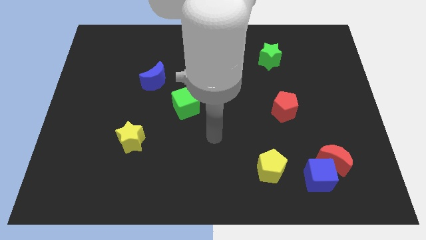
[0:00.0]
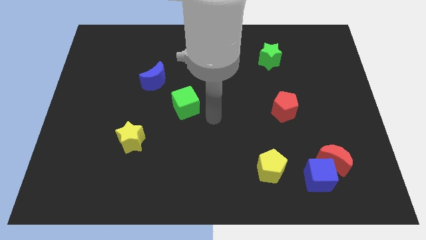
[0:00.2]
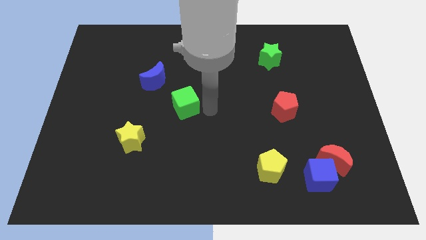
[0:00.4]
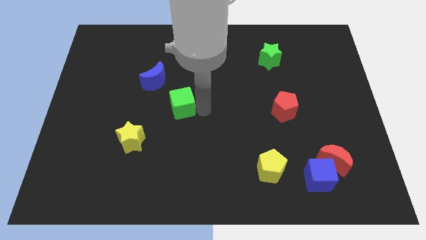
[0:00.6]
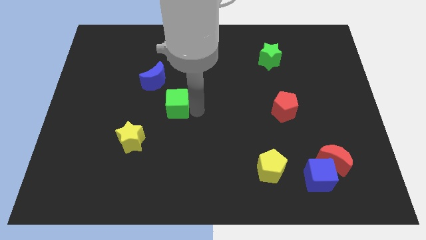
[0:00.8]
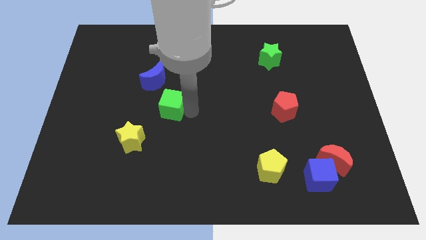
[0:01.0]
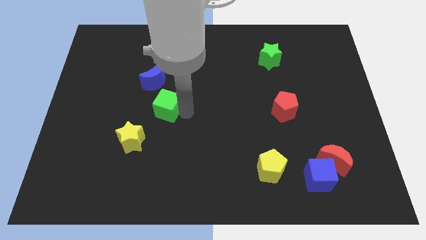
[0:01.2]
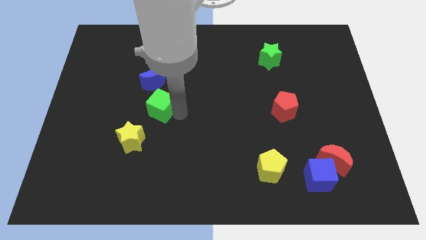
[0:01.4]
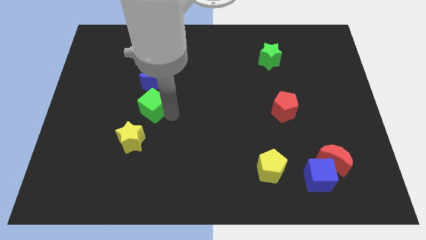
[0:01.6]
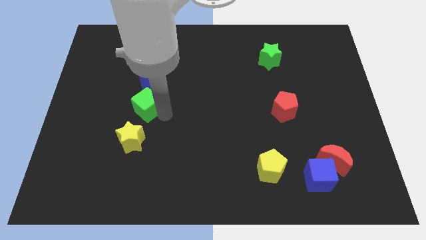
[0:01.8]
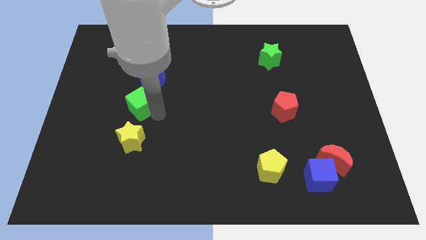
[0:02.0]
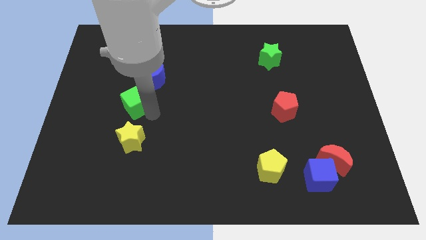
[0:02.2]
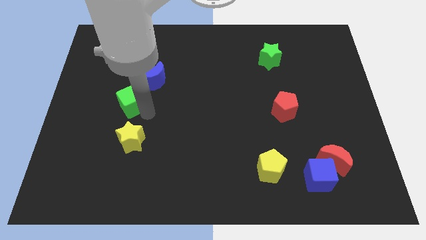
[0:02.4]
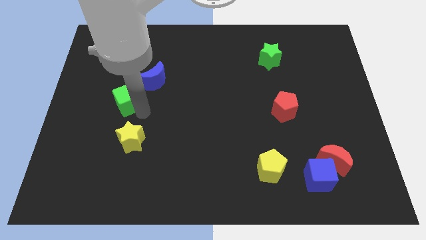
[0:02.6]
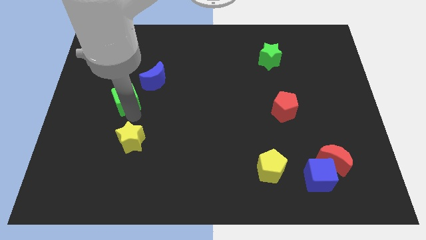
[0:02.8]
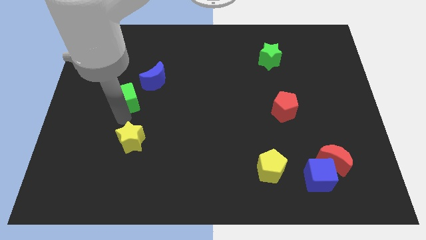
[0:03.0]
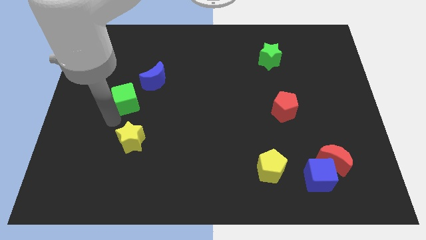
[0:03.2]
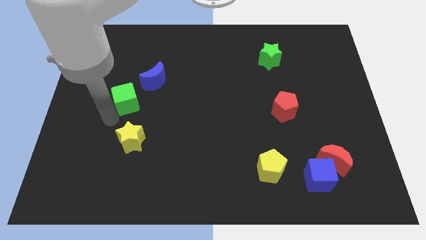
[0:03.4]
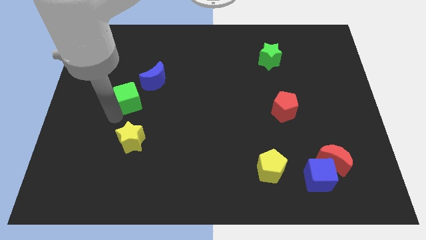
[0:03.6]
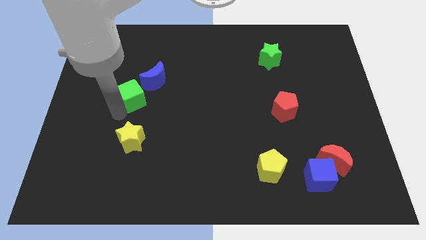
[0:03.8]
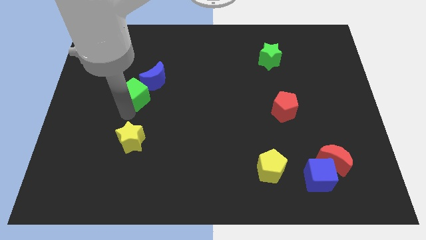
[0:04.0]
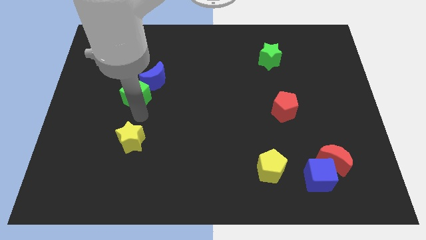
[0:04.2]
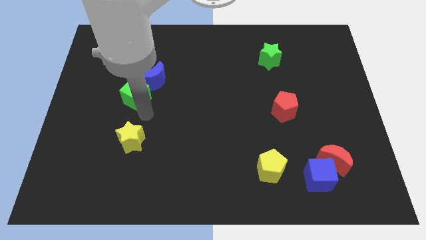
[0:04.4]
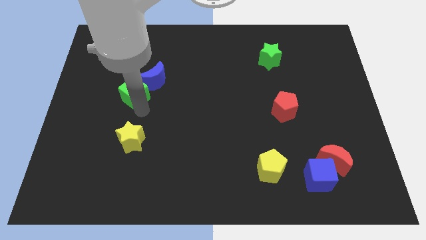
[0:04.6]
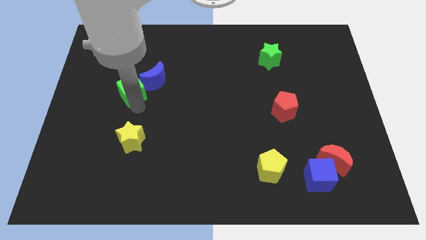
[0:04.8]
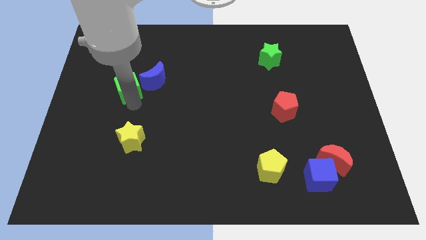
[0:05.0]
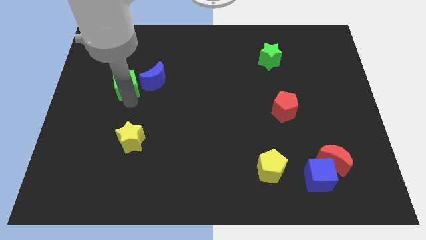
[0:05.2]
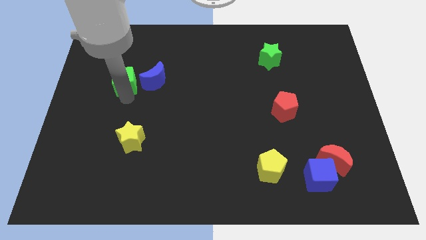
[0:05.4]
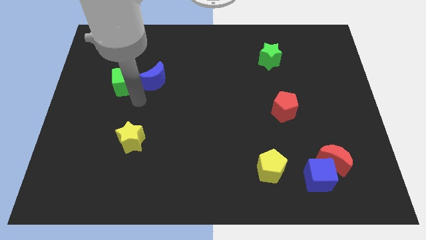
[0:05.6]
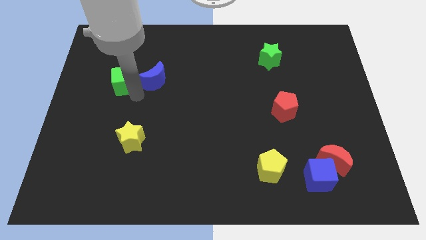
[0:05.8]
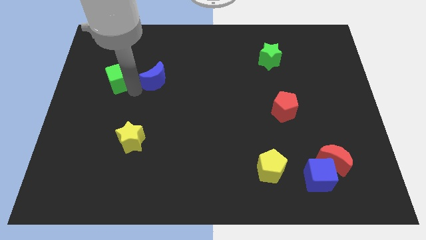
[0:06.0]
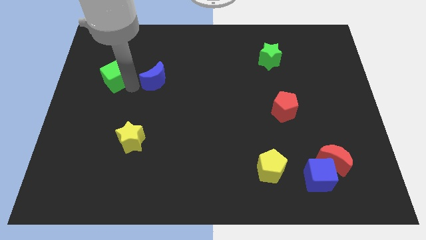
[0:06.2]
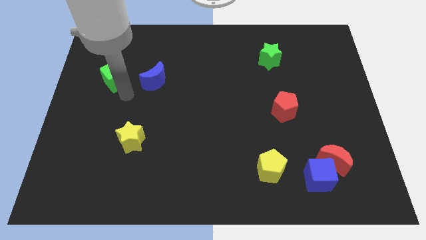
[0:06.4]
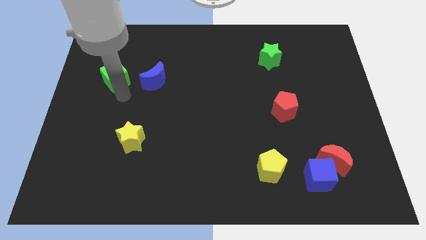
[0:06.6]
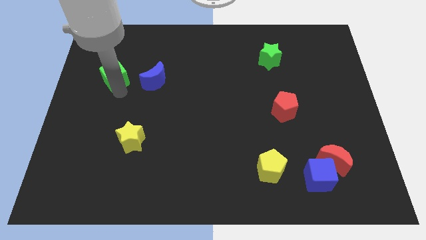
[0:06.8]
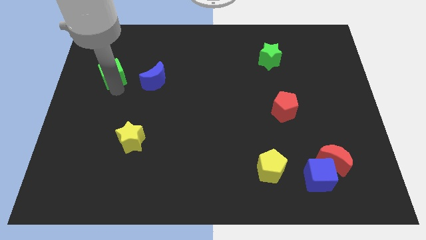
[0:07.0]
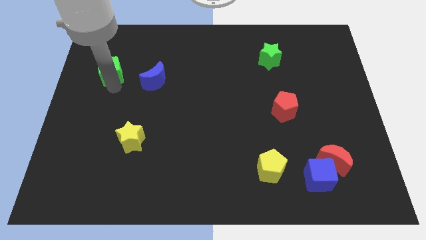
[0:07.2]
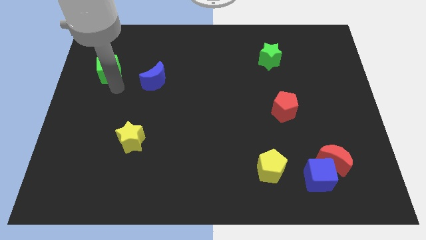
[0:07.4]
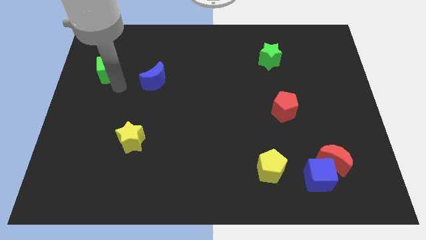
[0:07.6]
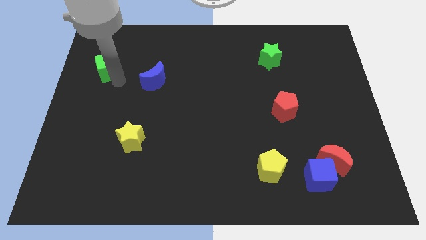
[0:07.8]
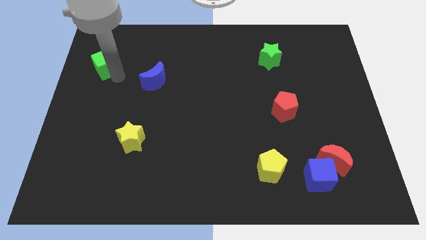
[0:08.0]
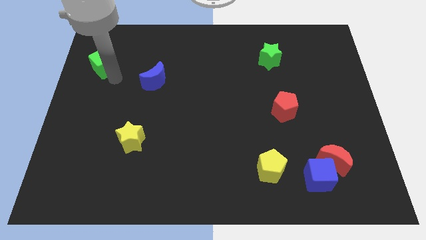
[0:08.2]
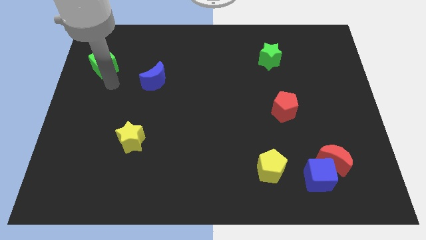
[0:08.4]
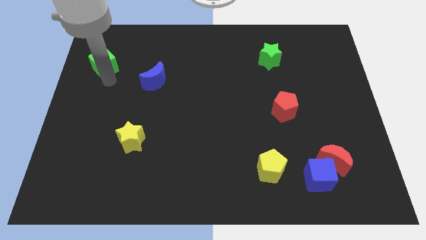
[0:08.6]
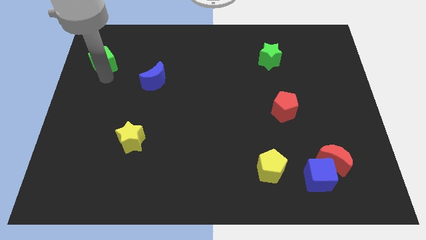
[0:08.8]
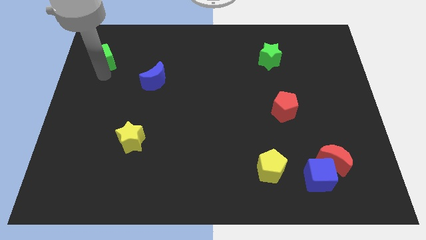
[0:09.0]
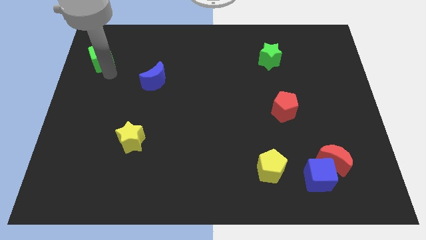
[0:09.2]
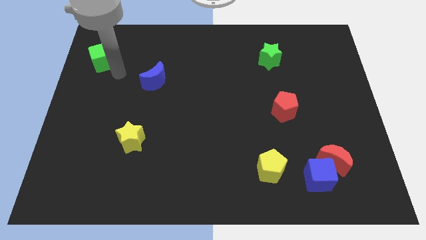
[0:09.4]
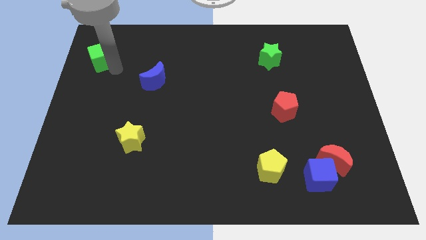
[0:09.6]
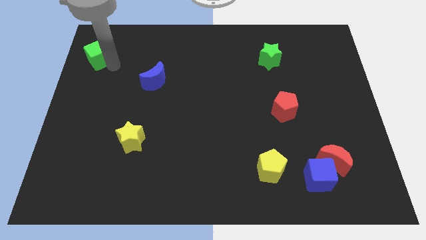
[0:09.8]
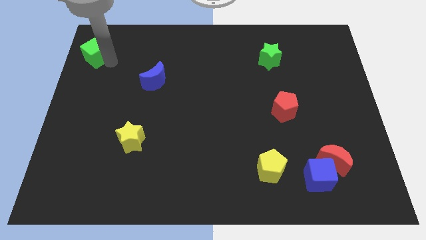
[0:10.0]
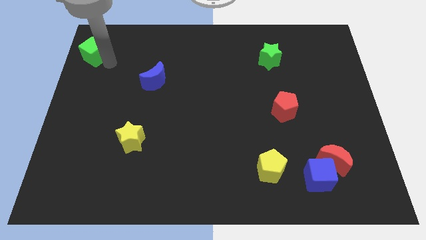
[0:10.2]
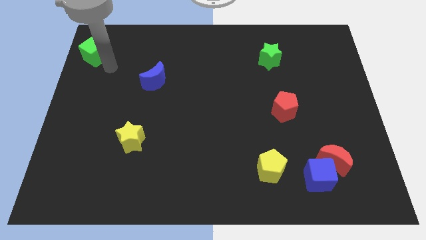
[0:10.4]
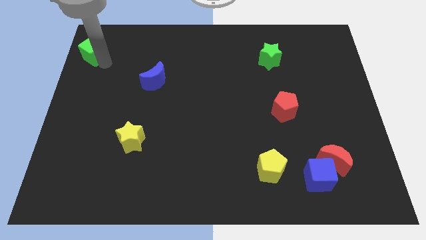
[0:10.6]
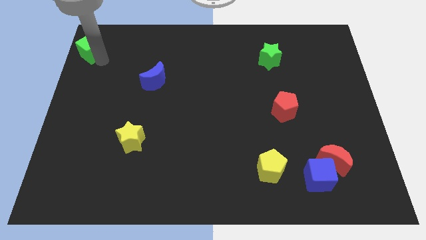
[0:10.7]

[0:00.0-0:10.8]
push the green cube to the upper left corner

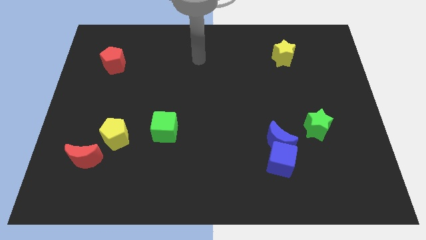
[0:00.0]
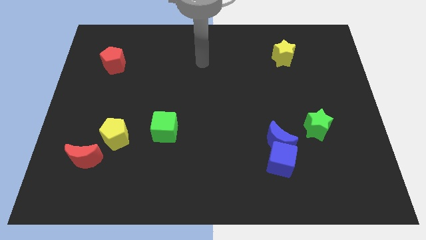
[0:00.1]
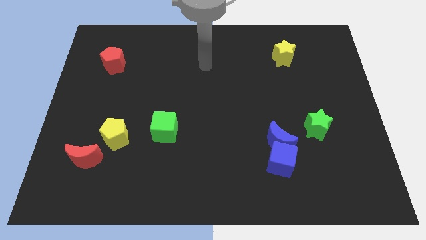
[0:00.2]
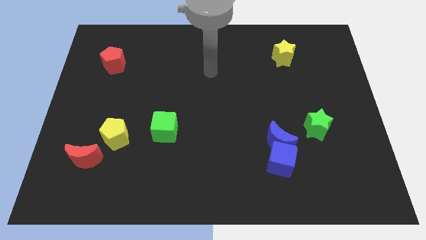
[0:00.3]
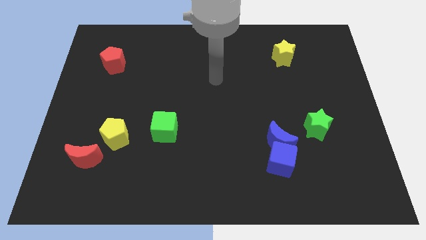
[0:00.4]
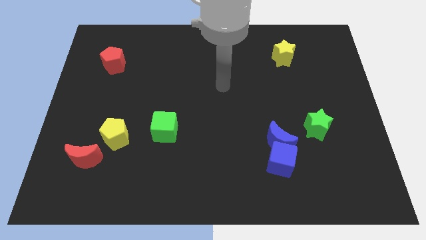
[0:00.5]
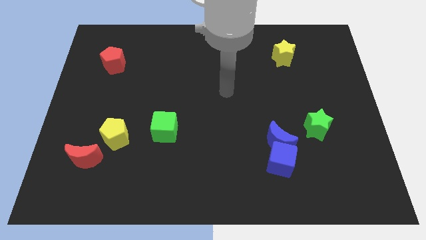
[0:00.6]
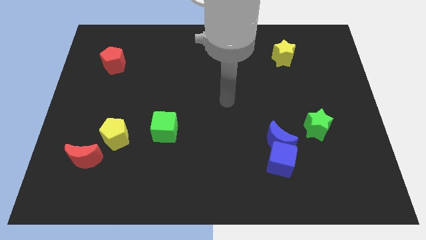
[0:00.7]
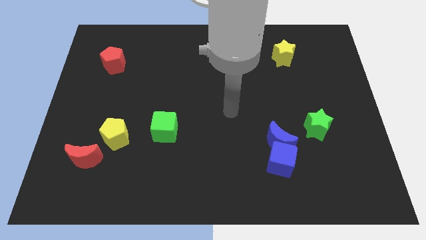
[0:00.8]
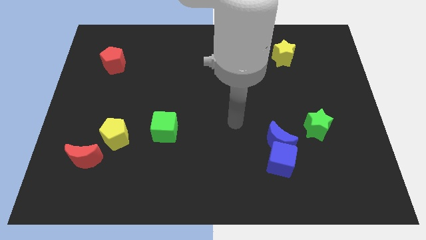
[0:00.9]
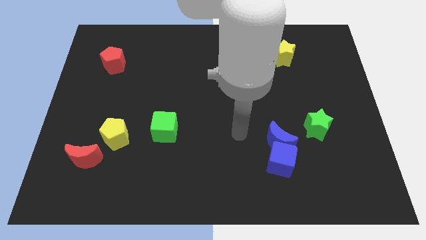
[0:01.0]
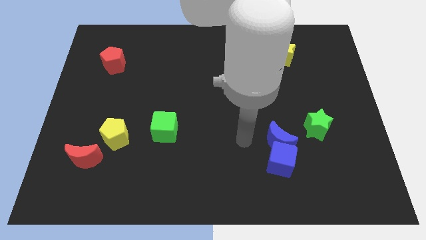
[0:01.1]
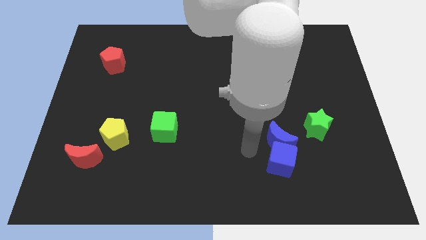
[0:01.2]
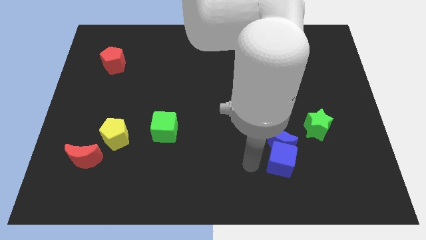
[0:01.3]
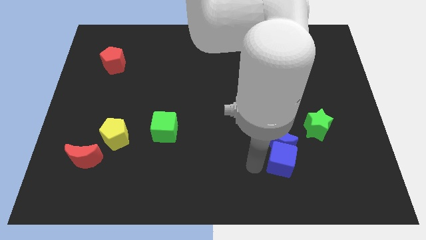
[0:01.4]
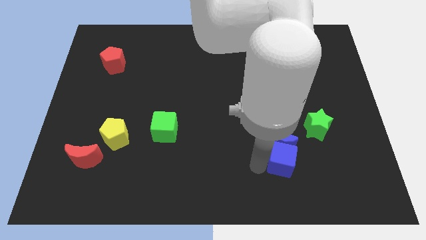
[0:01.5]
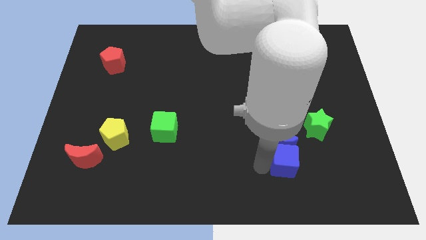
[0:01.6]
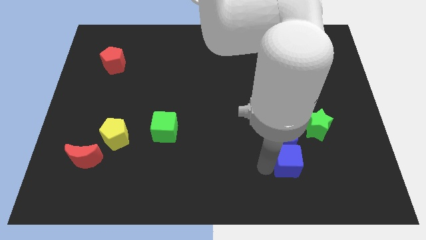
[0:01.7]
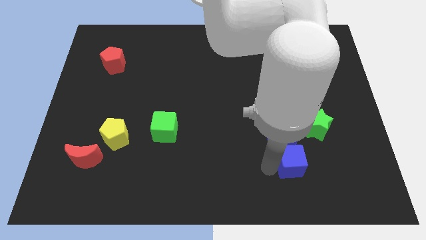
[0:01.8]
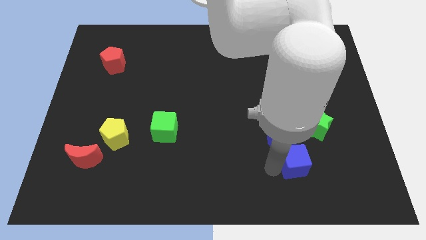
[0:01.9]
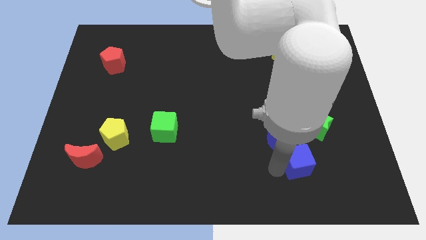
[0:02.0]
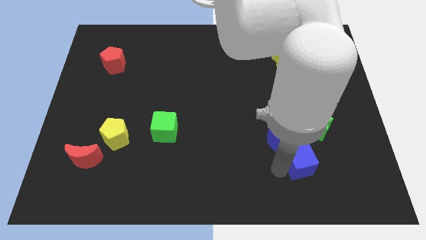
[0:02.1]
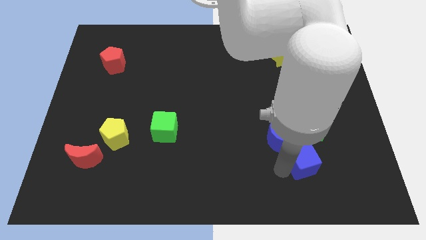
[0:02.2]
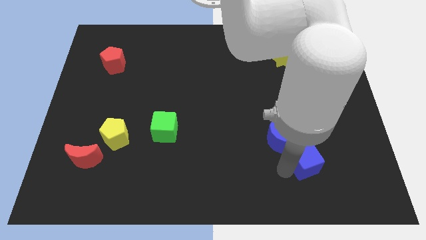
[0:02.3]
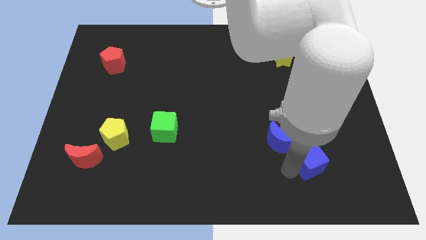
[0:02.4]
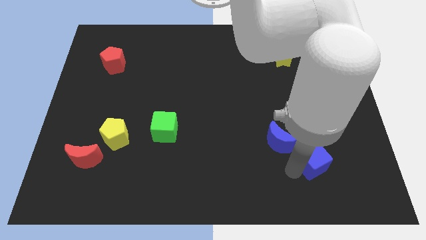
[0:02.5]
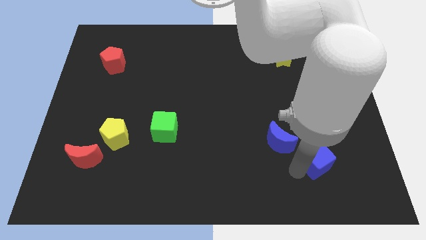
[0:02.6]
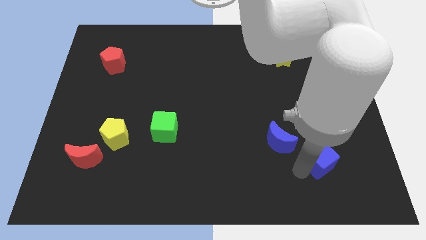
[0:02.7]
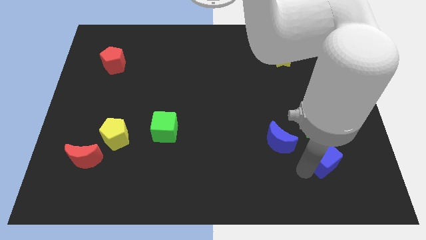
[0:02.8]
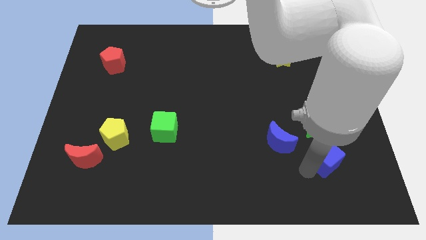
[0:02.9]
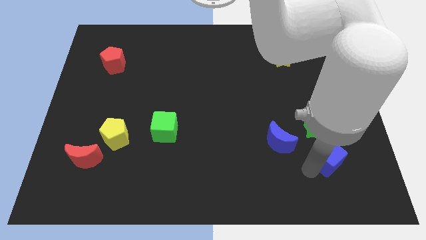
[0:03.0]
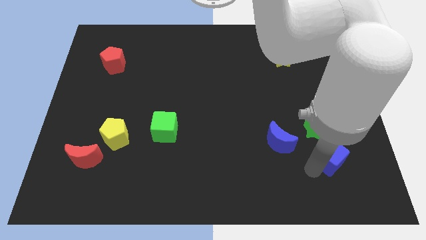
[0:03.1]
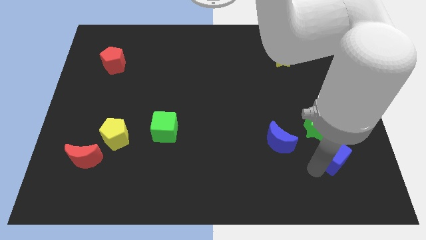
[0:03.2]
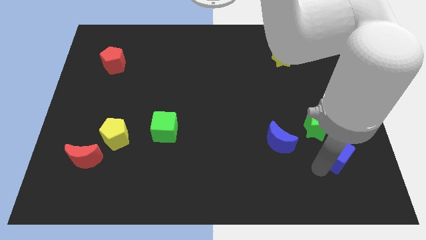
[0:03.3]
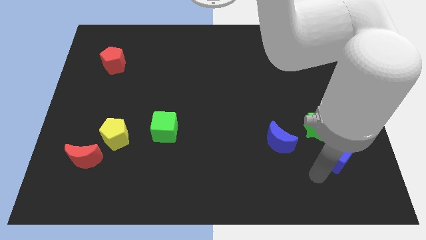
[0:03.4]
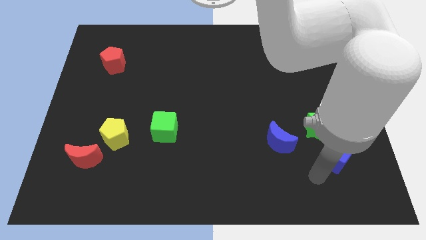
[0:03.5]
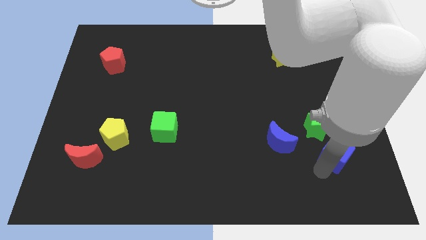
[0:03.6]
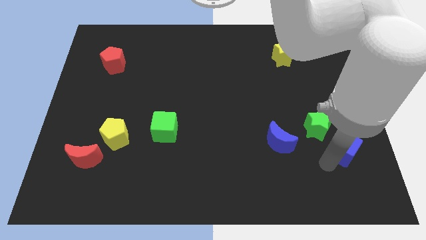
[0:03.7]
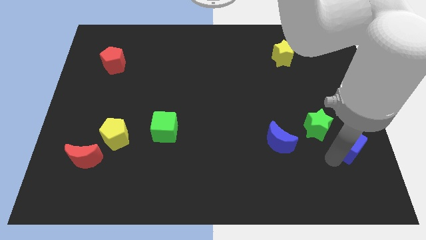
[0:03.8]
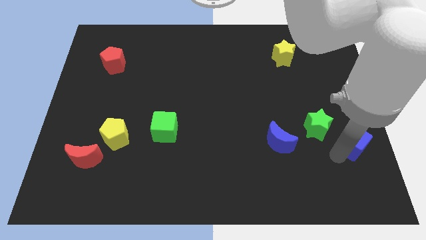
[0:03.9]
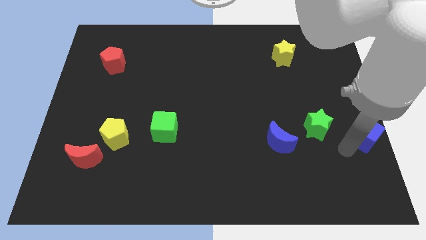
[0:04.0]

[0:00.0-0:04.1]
move the blue cube to the center right
